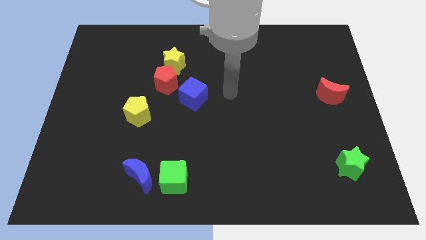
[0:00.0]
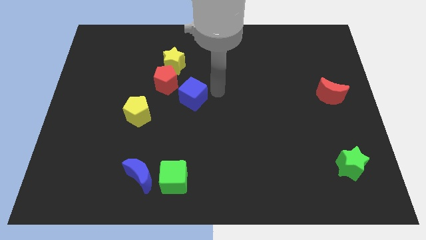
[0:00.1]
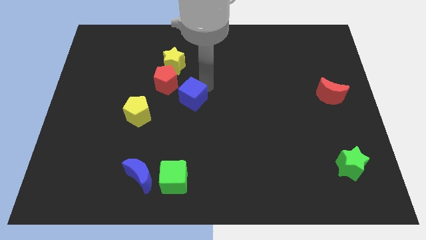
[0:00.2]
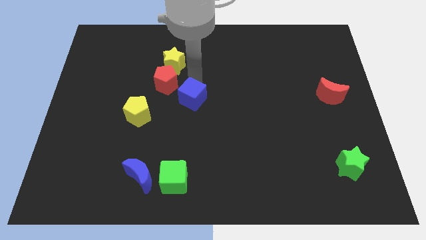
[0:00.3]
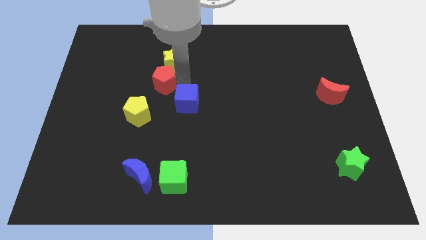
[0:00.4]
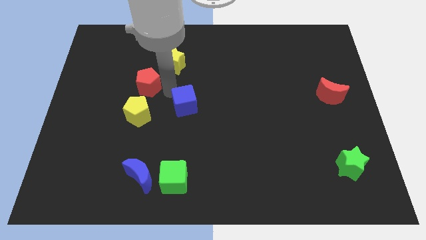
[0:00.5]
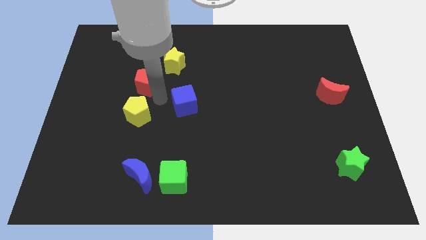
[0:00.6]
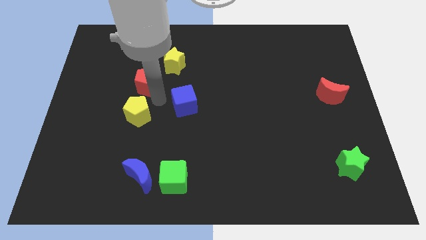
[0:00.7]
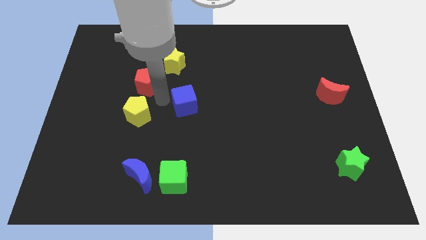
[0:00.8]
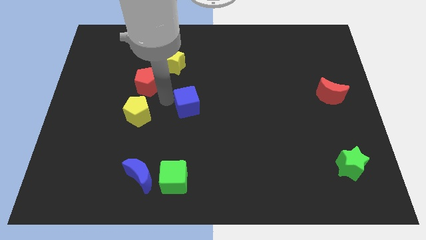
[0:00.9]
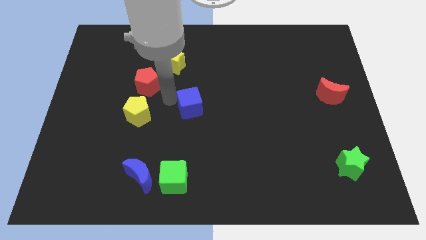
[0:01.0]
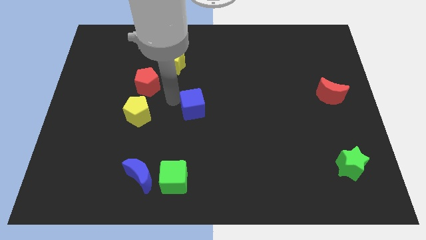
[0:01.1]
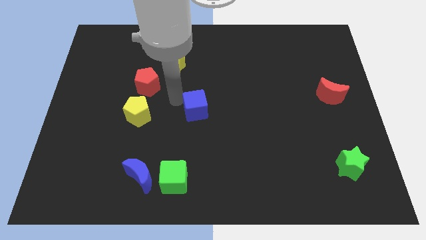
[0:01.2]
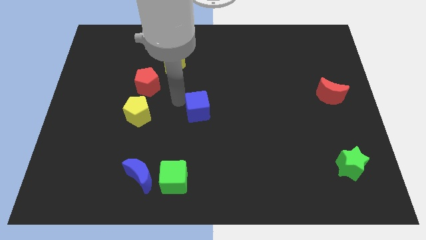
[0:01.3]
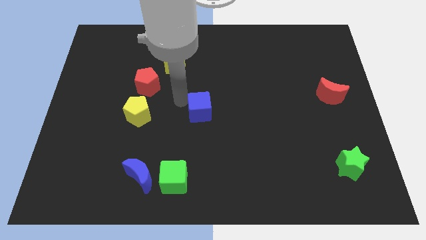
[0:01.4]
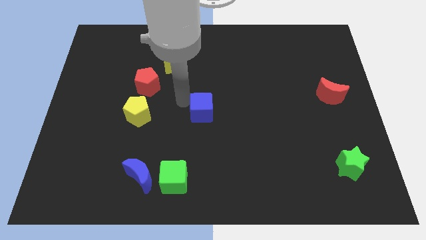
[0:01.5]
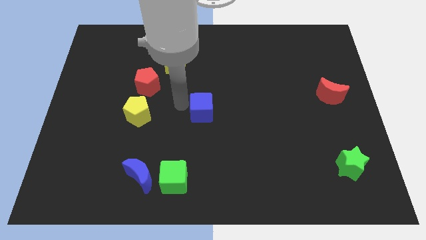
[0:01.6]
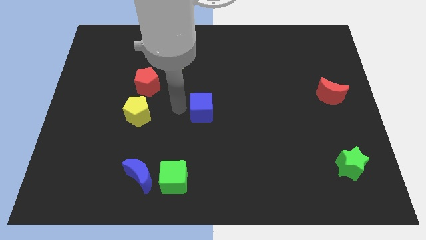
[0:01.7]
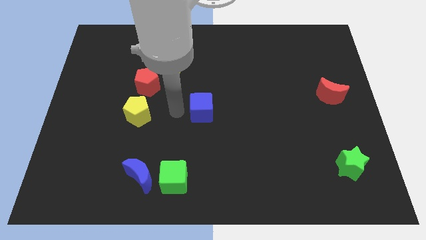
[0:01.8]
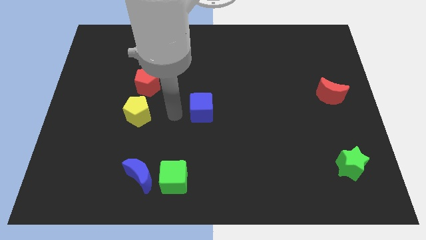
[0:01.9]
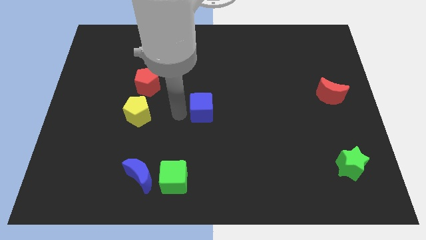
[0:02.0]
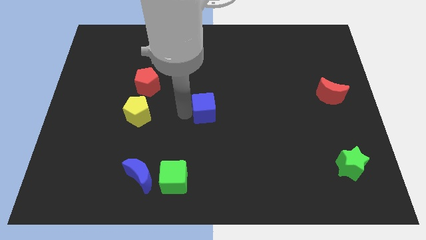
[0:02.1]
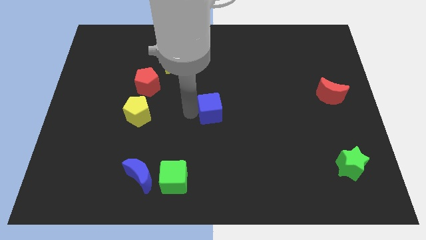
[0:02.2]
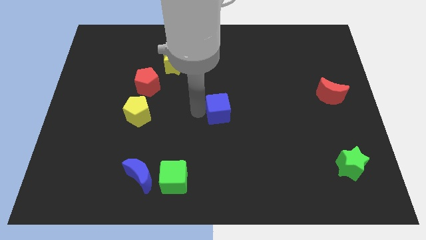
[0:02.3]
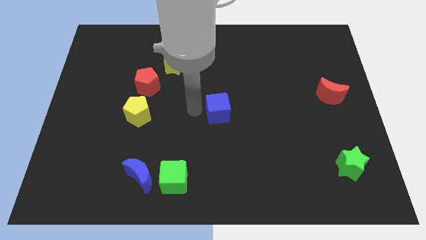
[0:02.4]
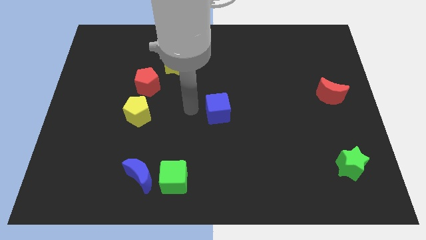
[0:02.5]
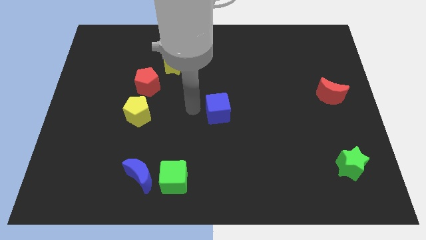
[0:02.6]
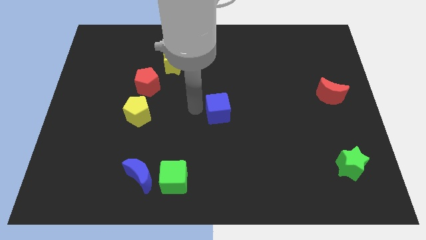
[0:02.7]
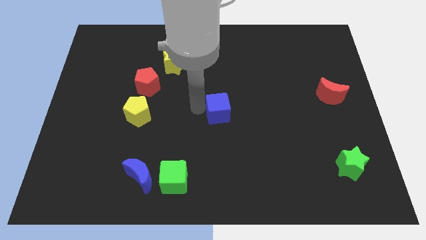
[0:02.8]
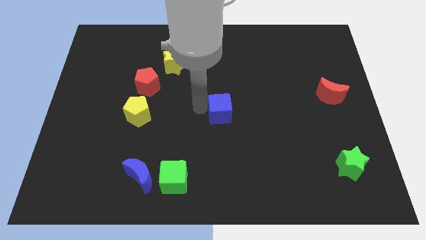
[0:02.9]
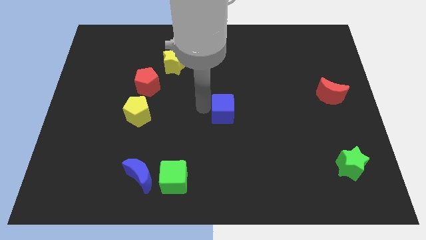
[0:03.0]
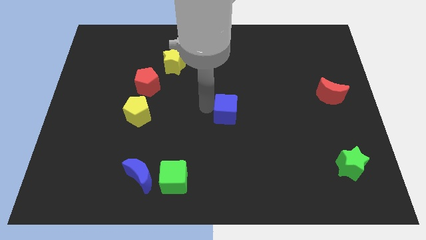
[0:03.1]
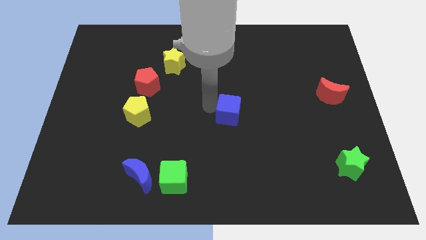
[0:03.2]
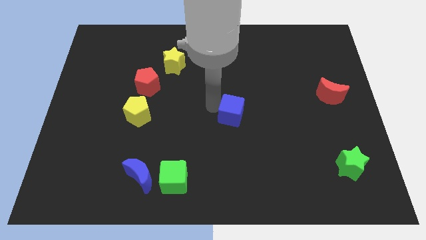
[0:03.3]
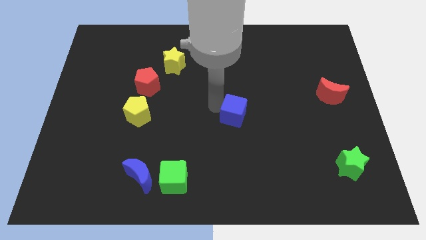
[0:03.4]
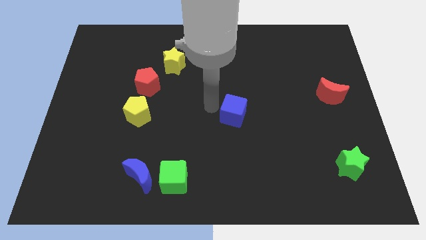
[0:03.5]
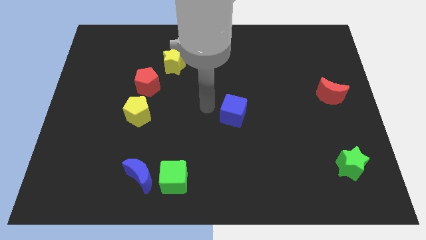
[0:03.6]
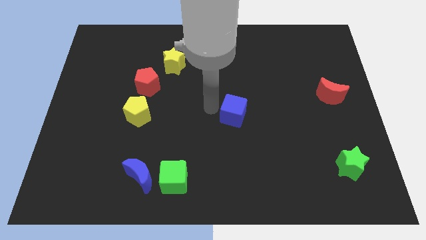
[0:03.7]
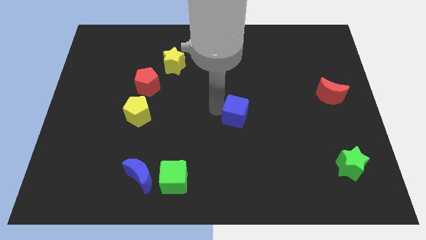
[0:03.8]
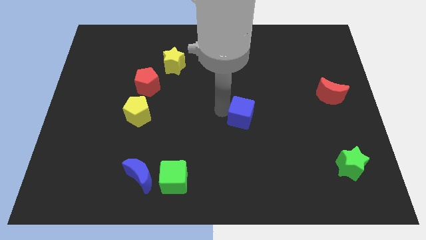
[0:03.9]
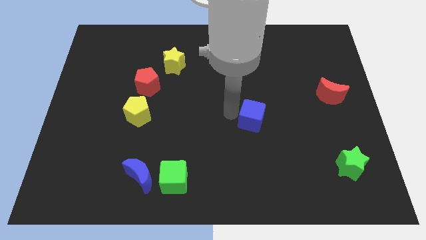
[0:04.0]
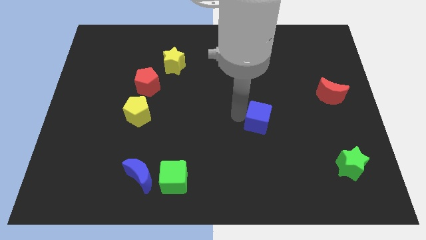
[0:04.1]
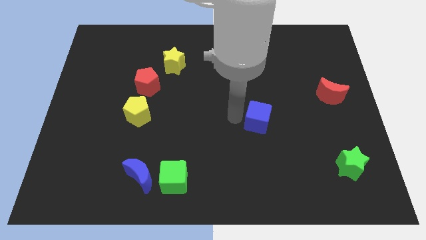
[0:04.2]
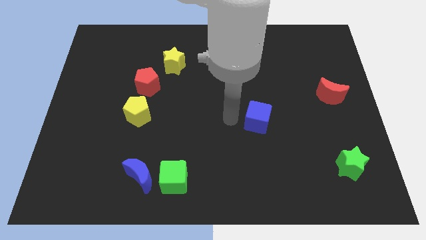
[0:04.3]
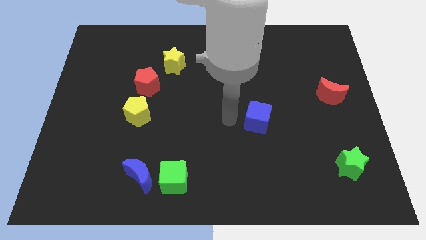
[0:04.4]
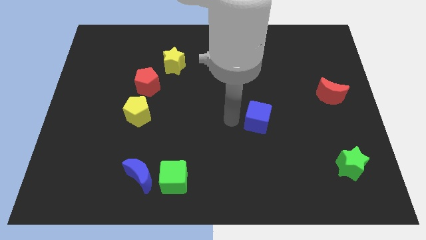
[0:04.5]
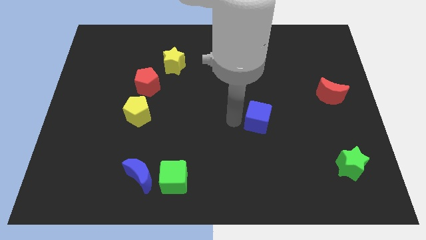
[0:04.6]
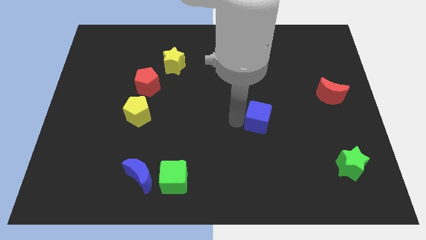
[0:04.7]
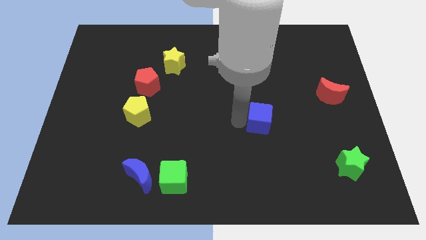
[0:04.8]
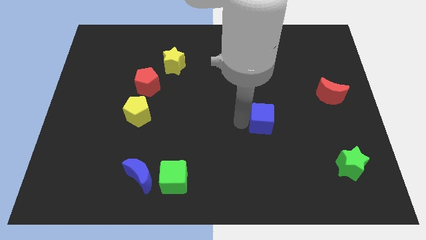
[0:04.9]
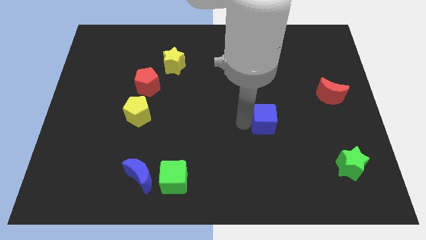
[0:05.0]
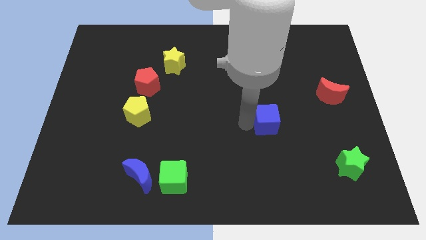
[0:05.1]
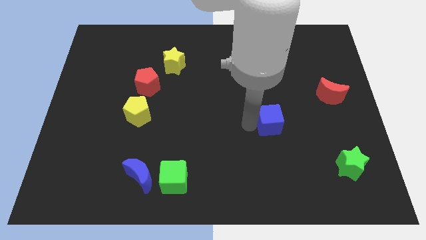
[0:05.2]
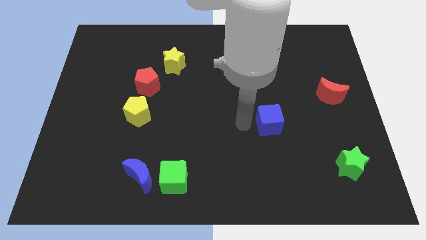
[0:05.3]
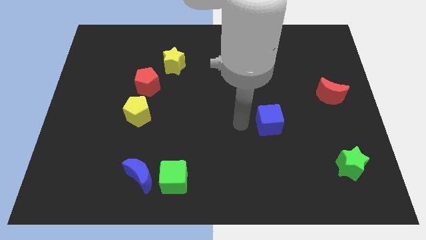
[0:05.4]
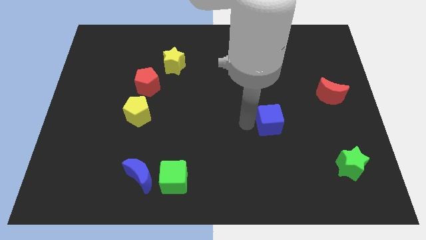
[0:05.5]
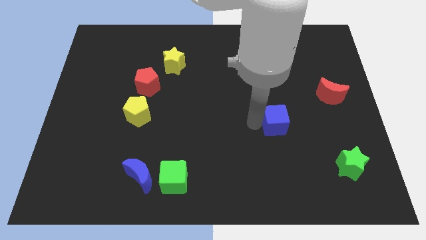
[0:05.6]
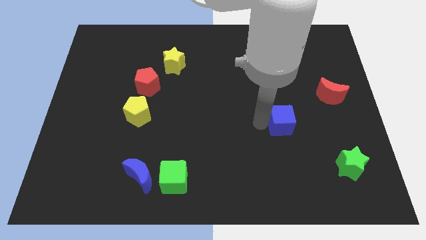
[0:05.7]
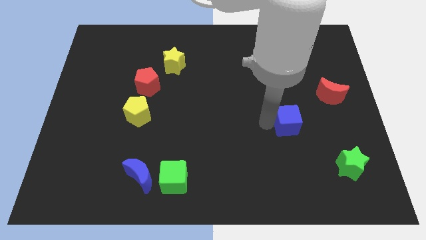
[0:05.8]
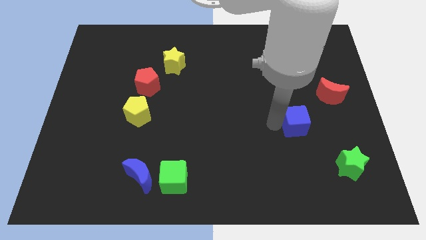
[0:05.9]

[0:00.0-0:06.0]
move the blue cube to the bottom left of the red moon

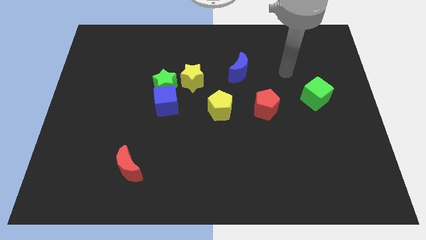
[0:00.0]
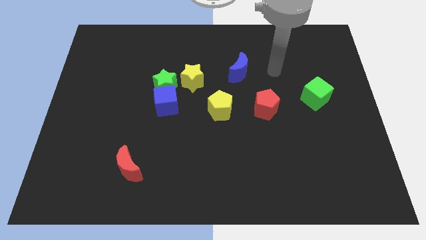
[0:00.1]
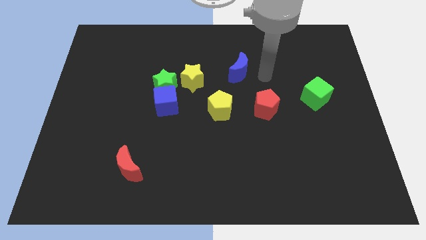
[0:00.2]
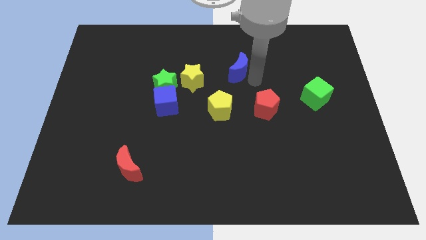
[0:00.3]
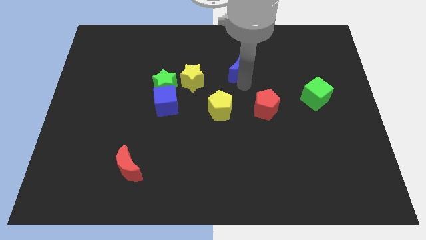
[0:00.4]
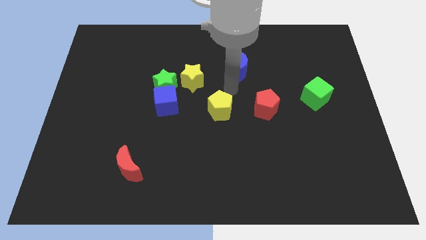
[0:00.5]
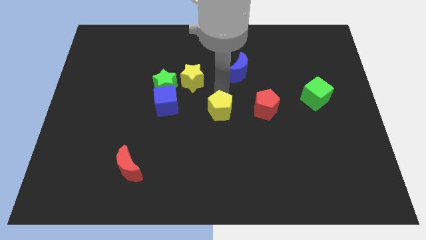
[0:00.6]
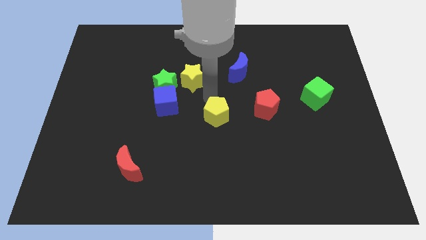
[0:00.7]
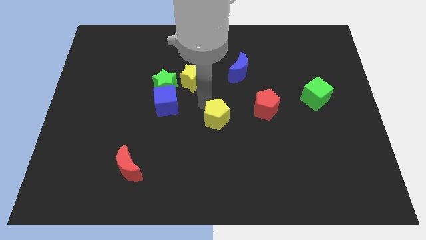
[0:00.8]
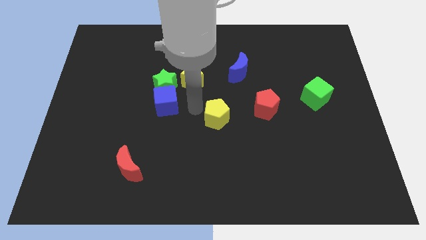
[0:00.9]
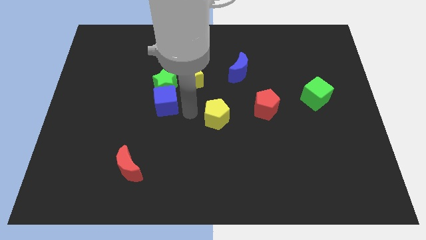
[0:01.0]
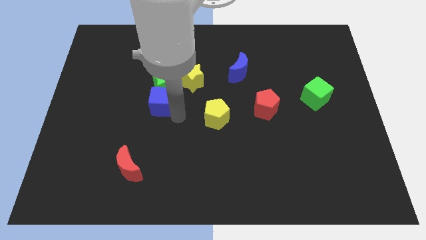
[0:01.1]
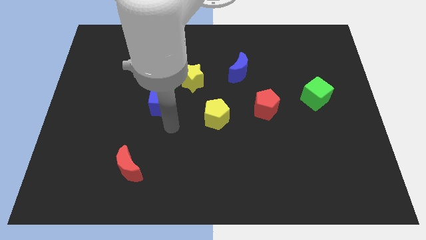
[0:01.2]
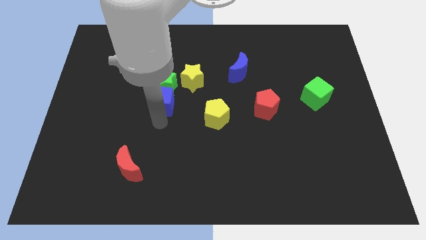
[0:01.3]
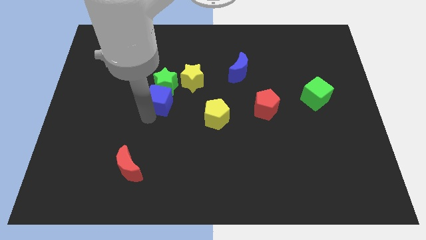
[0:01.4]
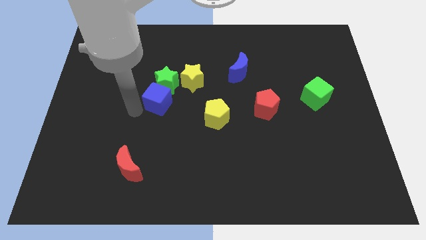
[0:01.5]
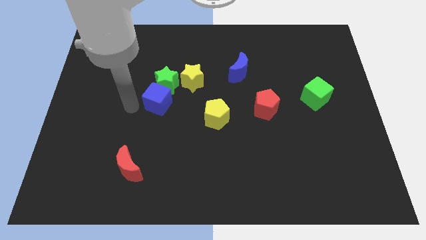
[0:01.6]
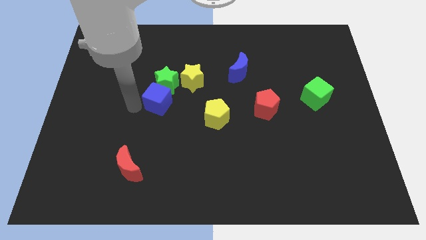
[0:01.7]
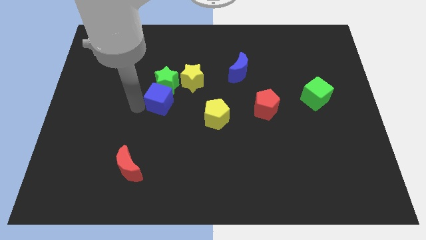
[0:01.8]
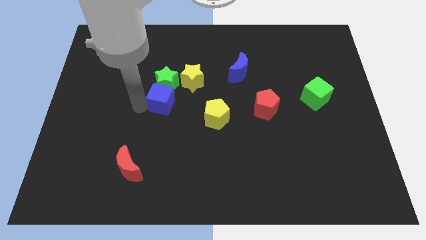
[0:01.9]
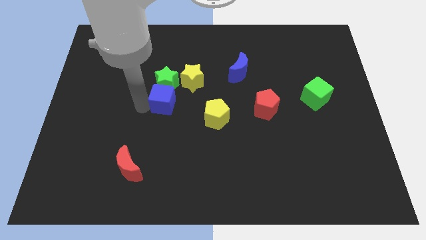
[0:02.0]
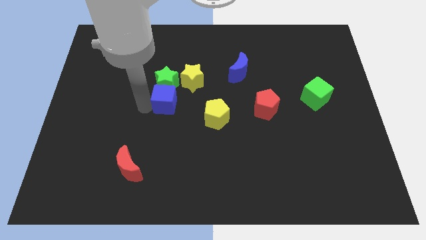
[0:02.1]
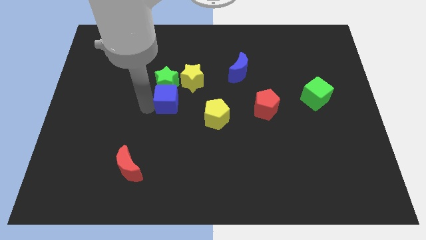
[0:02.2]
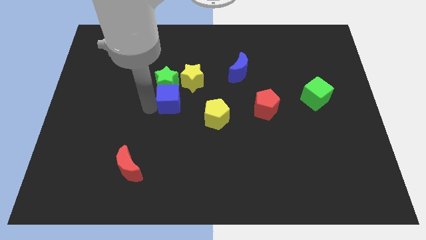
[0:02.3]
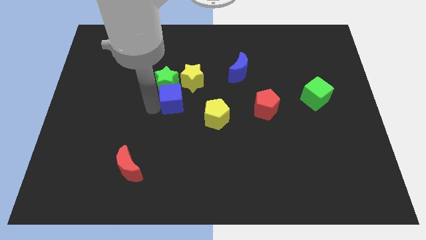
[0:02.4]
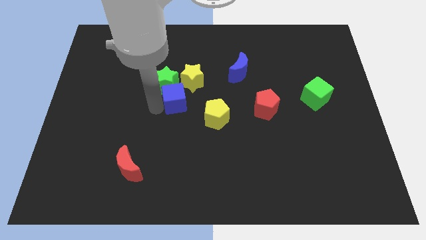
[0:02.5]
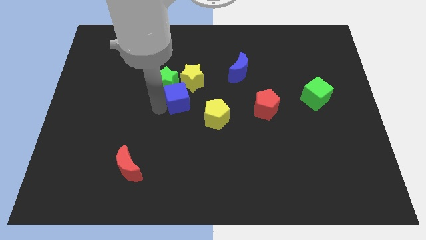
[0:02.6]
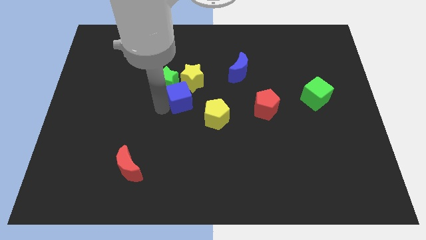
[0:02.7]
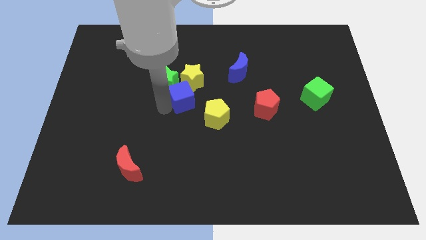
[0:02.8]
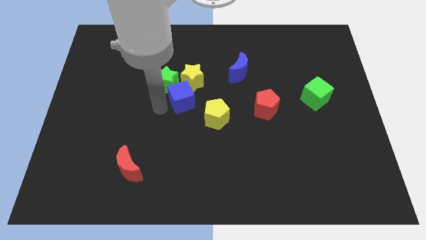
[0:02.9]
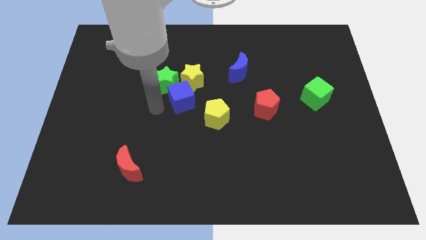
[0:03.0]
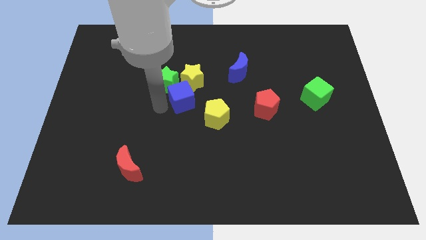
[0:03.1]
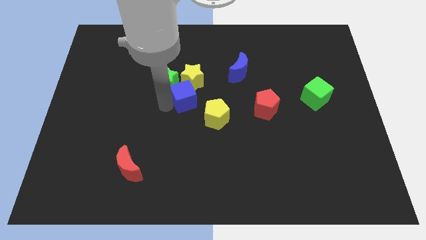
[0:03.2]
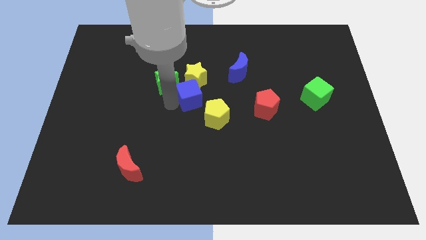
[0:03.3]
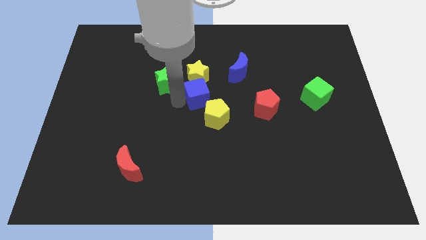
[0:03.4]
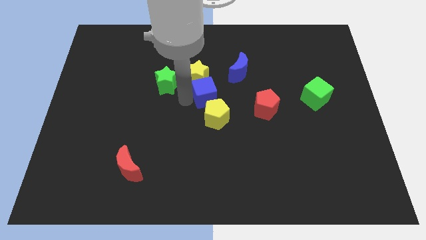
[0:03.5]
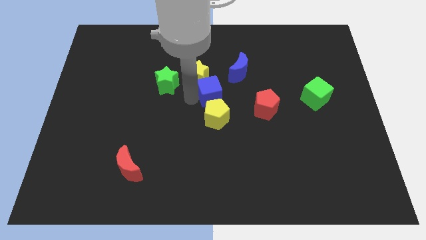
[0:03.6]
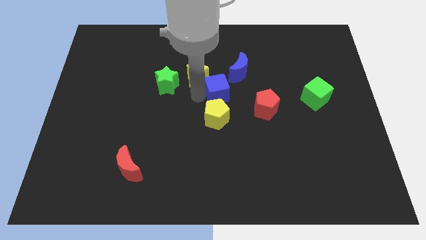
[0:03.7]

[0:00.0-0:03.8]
move the blue cube to the top right of the yellow pentagon
